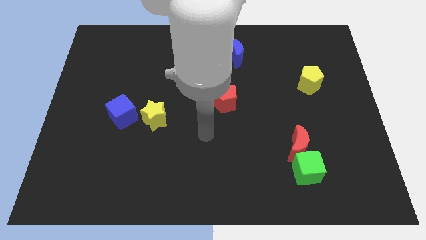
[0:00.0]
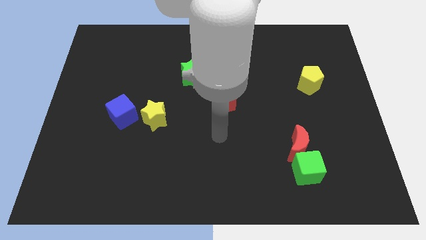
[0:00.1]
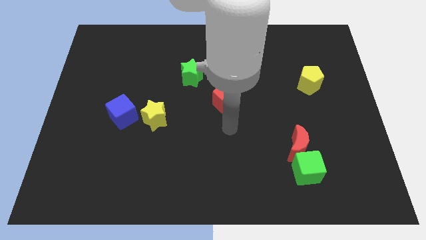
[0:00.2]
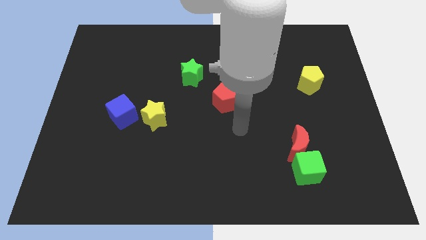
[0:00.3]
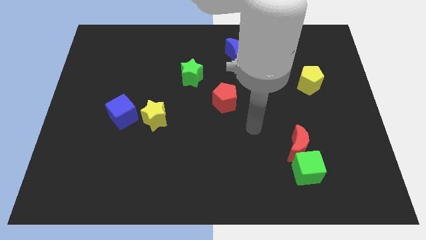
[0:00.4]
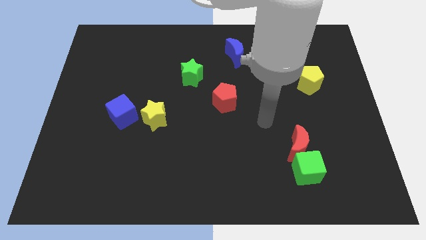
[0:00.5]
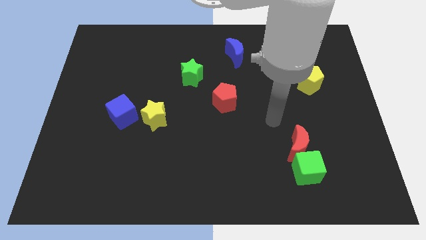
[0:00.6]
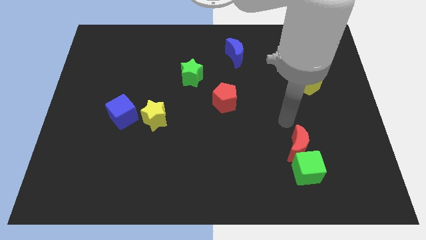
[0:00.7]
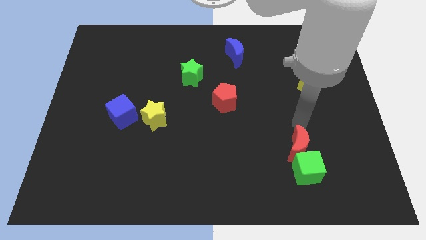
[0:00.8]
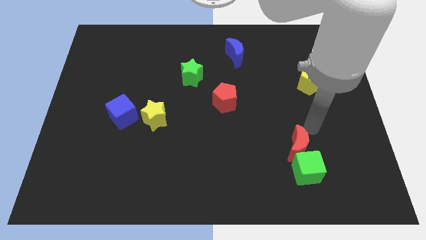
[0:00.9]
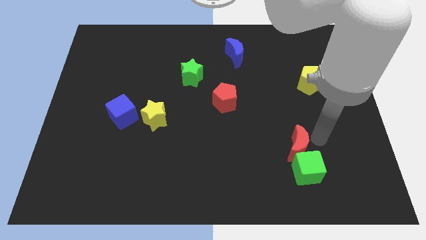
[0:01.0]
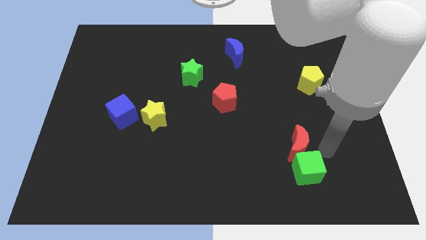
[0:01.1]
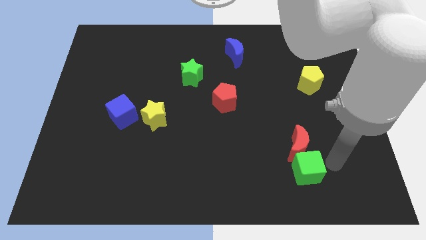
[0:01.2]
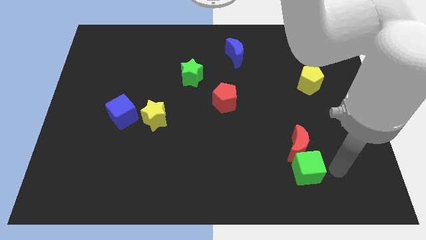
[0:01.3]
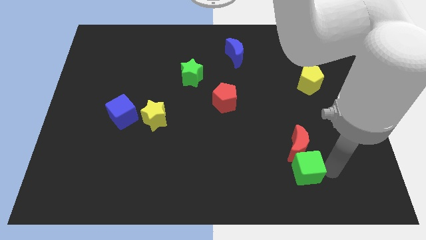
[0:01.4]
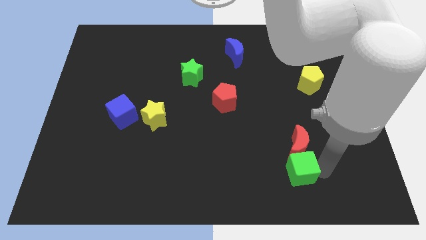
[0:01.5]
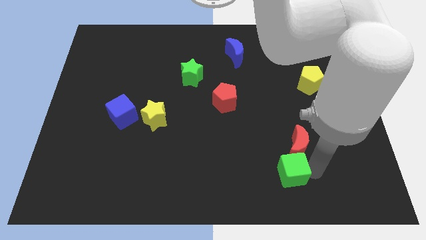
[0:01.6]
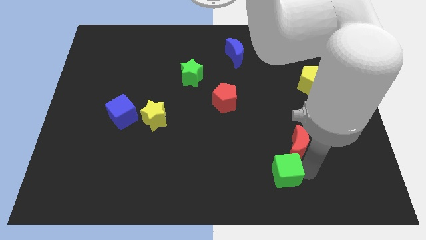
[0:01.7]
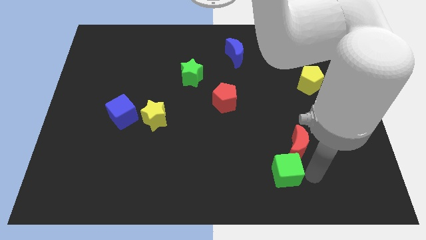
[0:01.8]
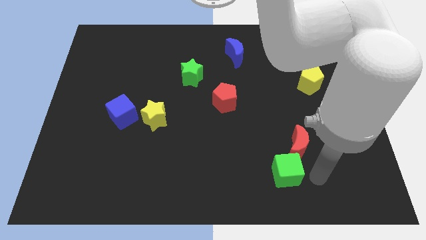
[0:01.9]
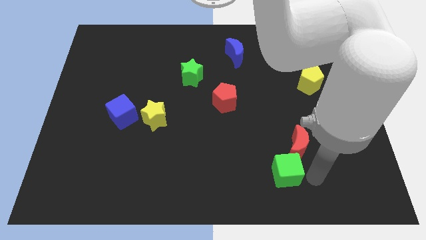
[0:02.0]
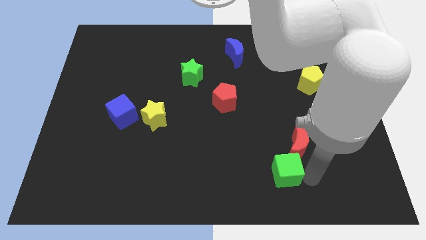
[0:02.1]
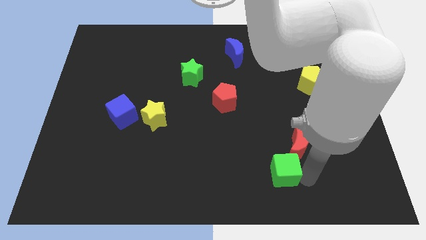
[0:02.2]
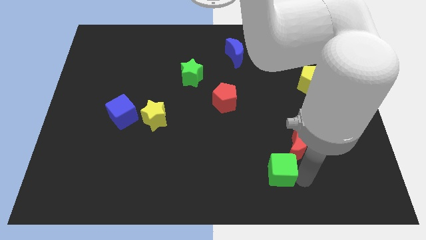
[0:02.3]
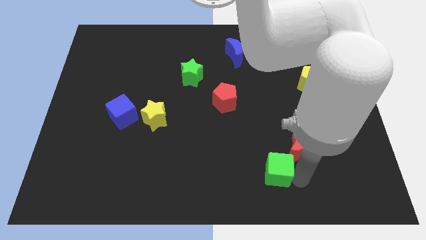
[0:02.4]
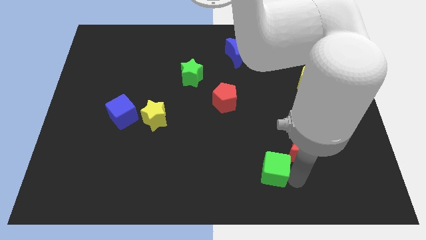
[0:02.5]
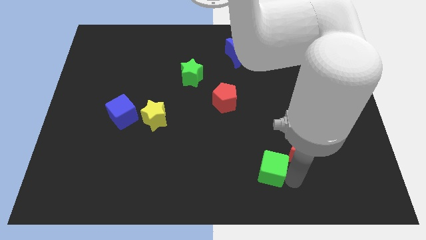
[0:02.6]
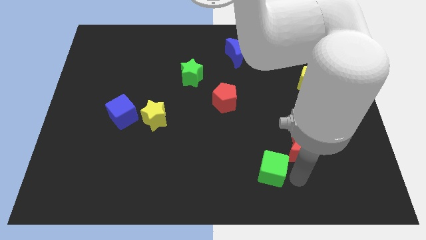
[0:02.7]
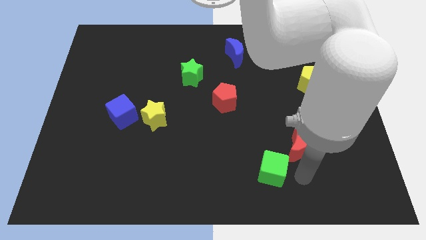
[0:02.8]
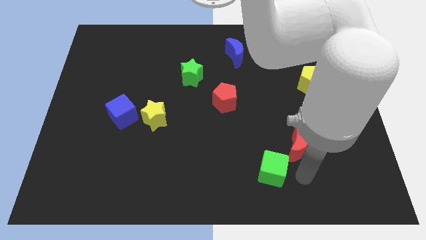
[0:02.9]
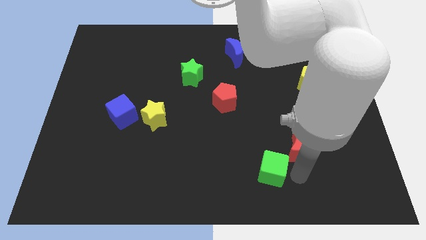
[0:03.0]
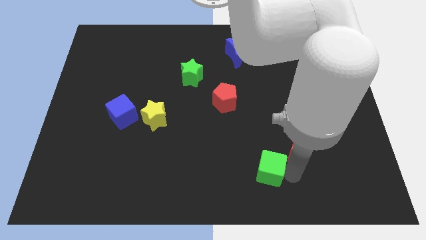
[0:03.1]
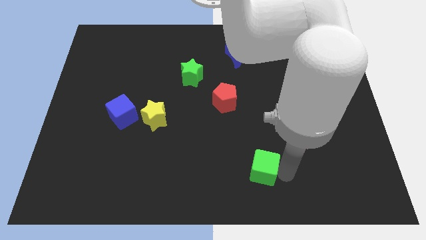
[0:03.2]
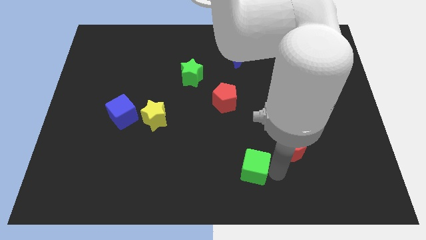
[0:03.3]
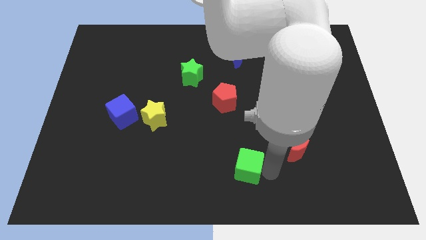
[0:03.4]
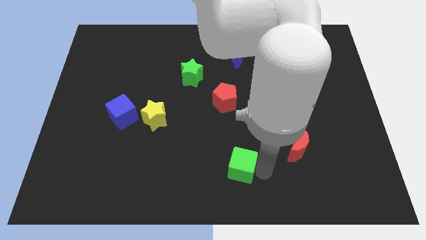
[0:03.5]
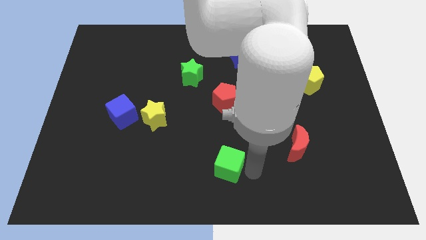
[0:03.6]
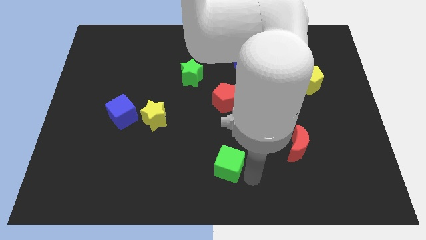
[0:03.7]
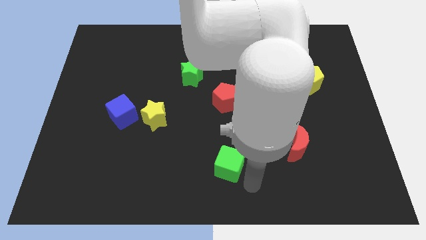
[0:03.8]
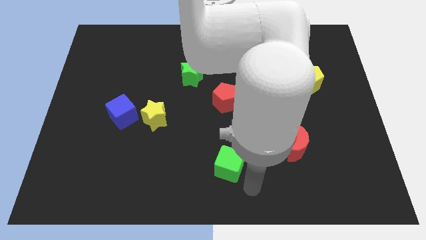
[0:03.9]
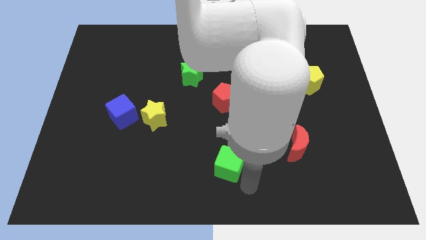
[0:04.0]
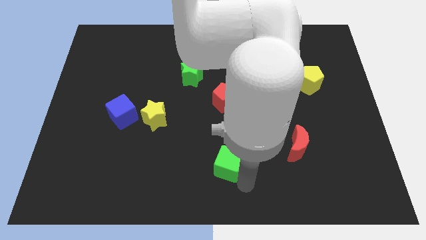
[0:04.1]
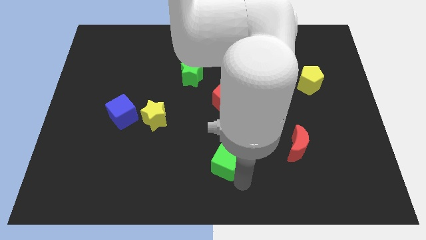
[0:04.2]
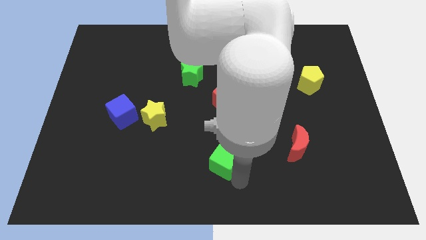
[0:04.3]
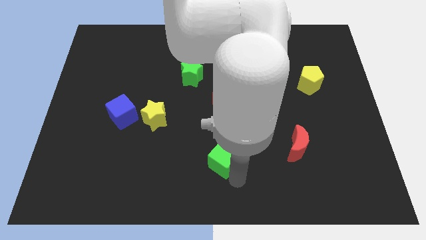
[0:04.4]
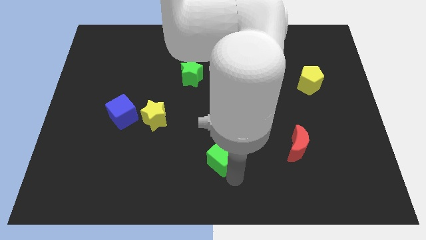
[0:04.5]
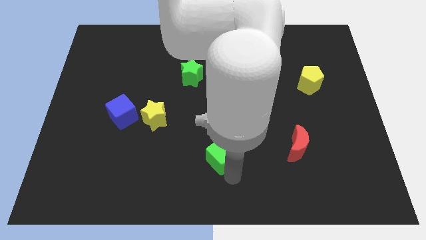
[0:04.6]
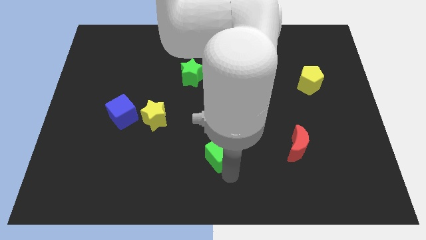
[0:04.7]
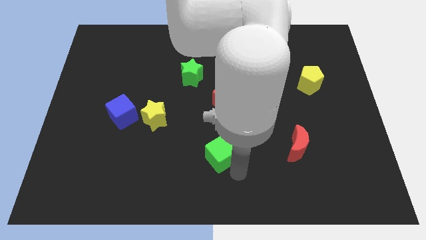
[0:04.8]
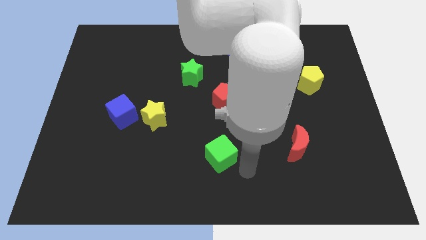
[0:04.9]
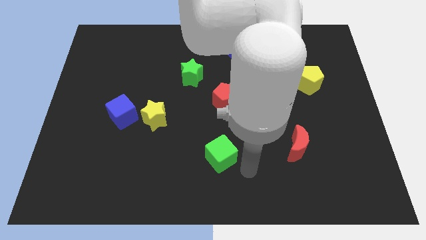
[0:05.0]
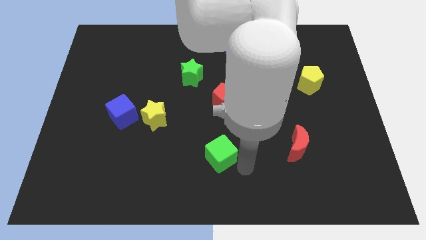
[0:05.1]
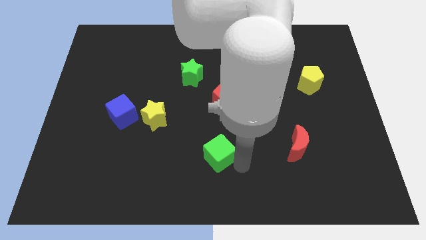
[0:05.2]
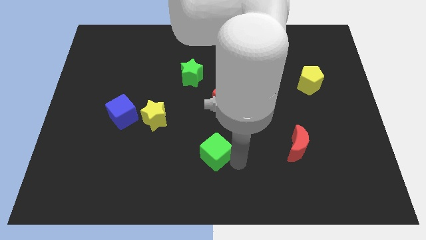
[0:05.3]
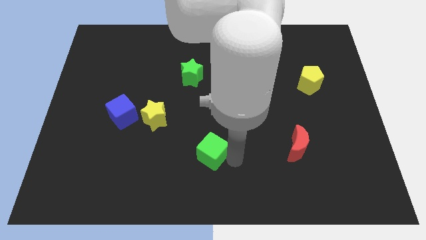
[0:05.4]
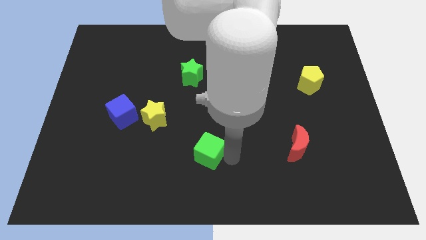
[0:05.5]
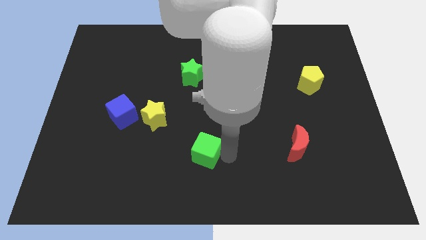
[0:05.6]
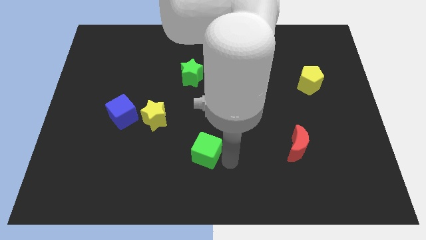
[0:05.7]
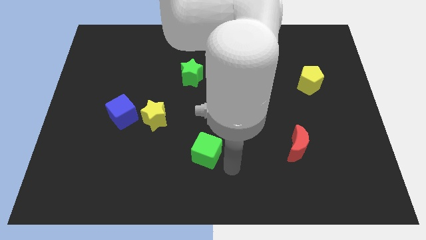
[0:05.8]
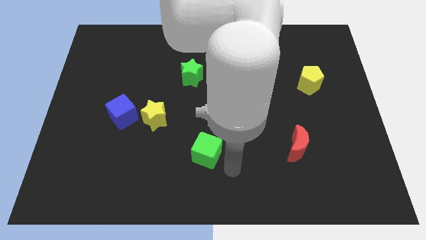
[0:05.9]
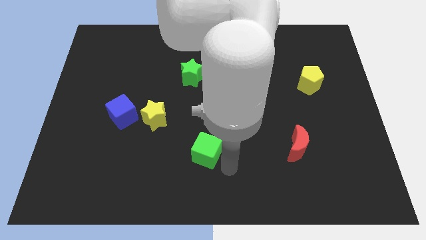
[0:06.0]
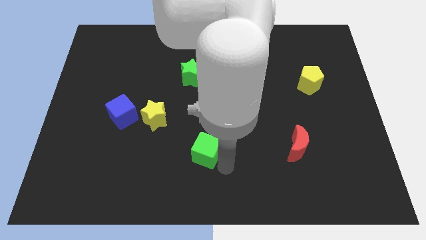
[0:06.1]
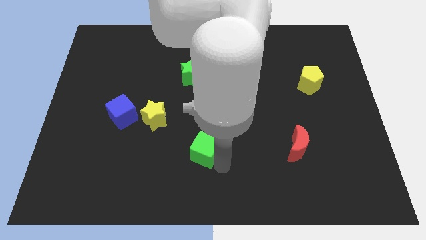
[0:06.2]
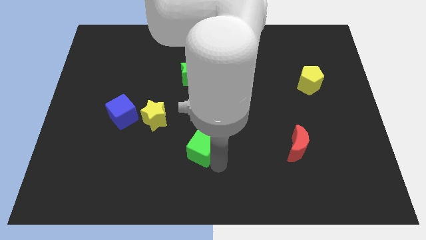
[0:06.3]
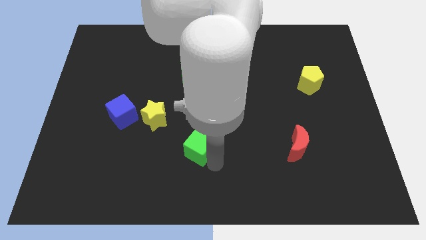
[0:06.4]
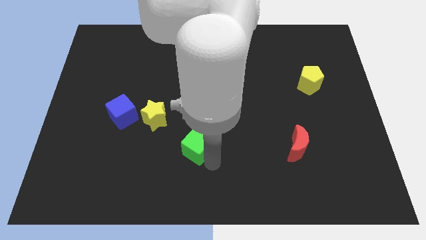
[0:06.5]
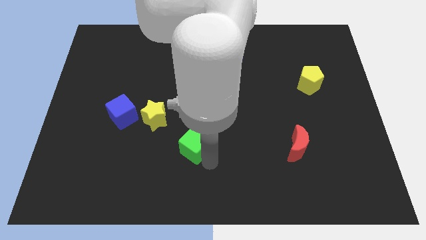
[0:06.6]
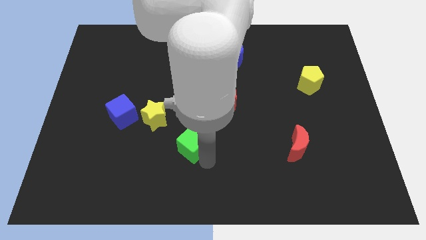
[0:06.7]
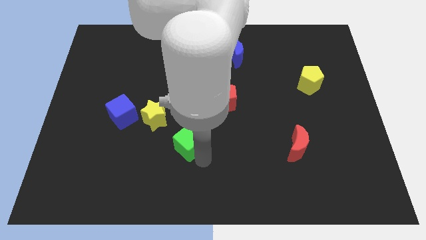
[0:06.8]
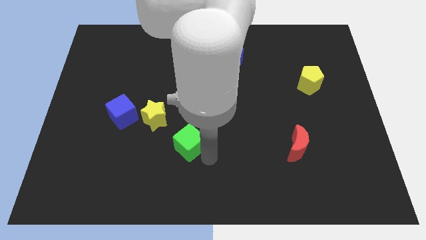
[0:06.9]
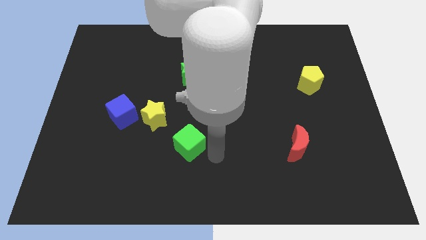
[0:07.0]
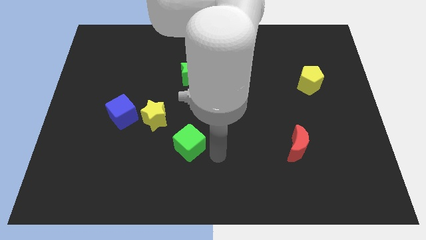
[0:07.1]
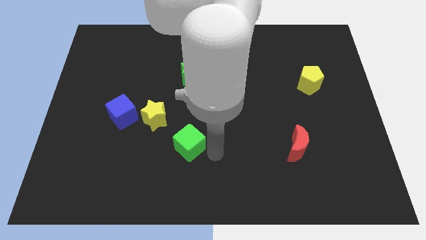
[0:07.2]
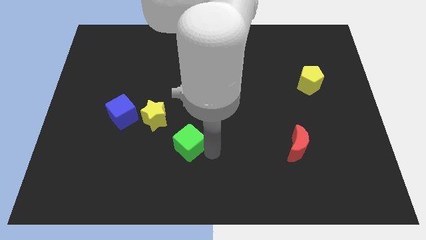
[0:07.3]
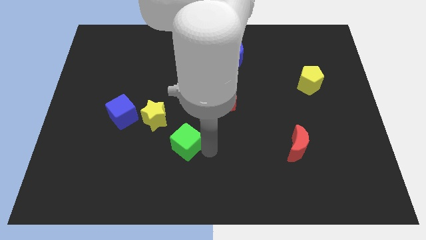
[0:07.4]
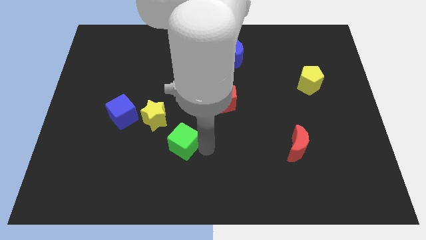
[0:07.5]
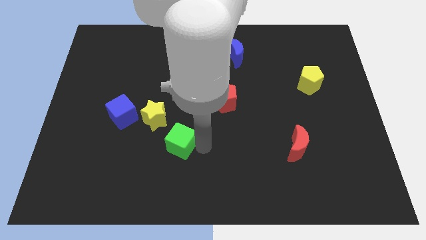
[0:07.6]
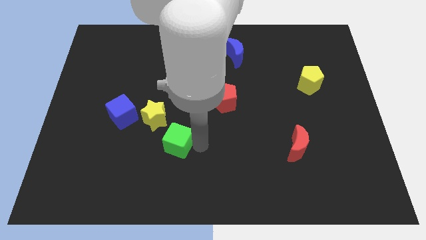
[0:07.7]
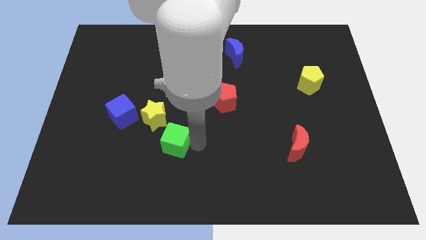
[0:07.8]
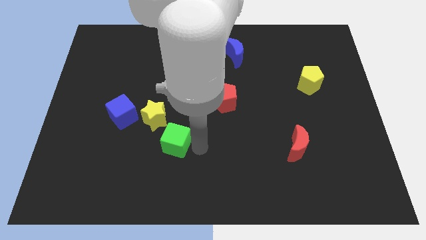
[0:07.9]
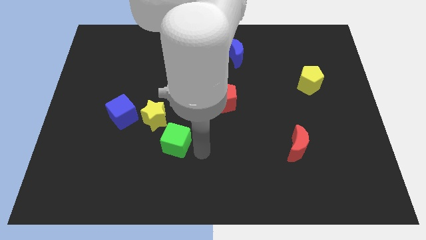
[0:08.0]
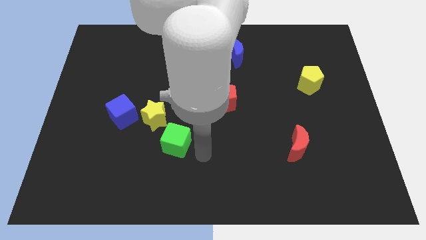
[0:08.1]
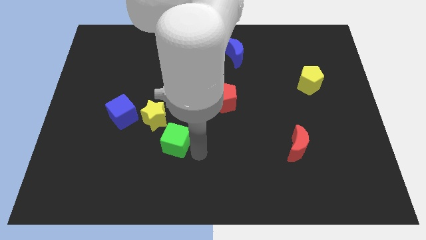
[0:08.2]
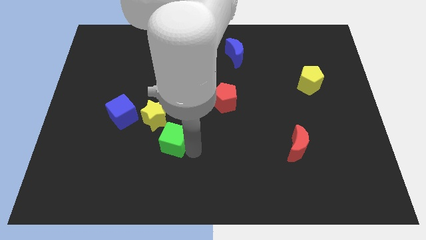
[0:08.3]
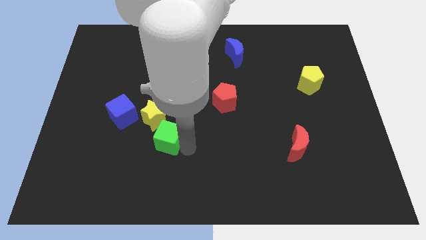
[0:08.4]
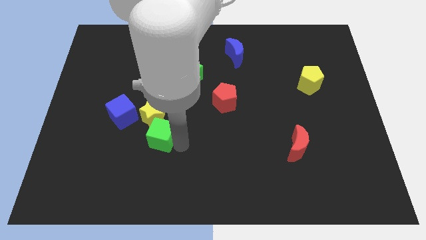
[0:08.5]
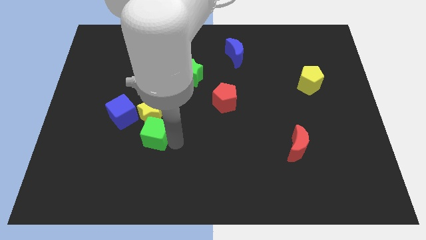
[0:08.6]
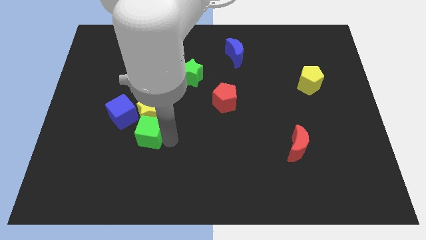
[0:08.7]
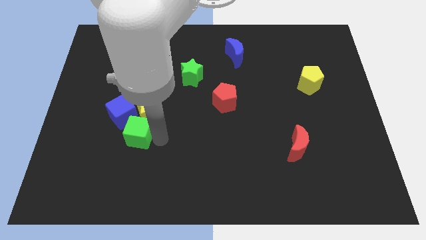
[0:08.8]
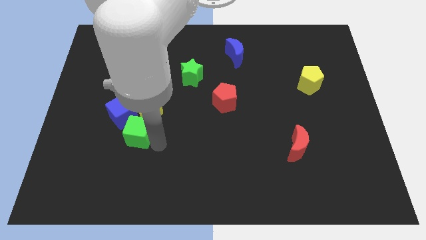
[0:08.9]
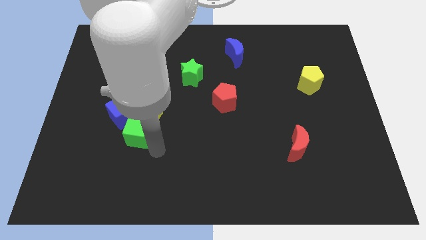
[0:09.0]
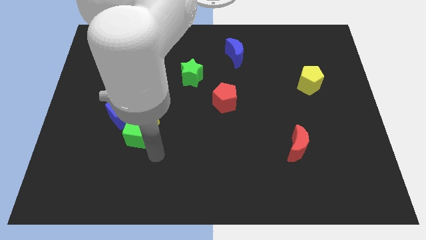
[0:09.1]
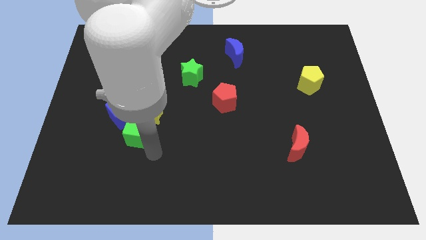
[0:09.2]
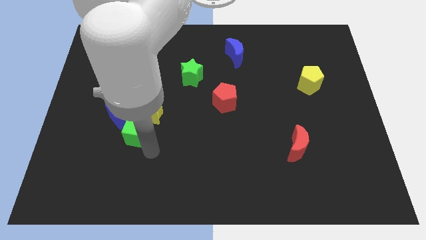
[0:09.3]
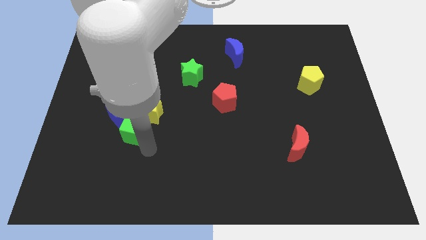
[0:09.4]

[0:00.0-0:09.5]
put the green cube close to the blue cube
